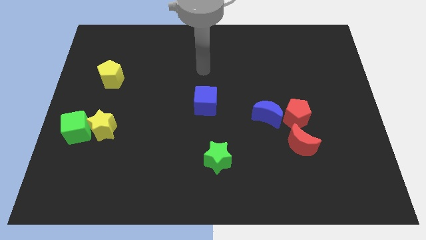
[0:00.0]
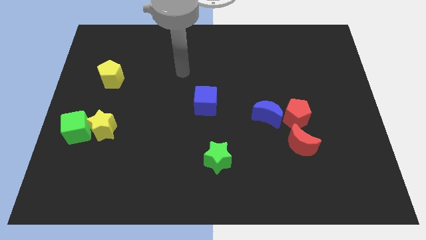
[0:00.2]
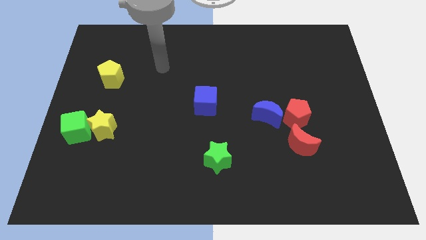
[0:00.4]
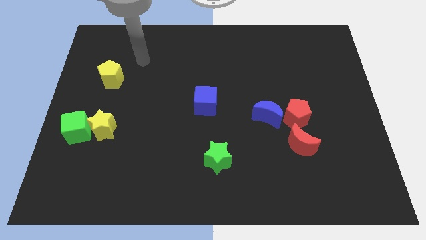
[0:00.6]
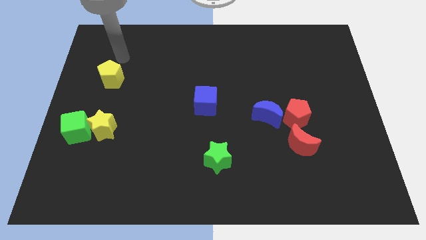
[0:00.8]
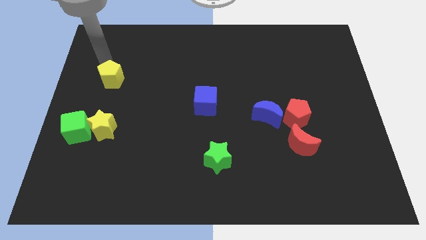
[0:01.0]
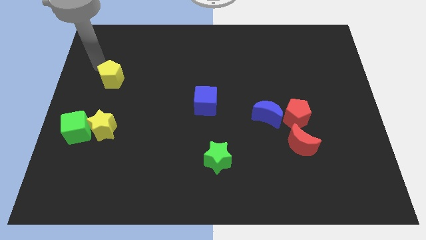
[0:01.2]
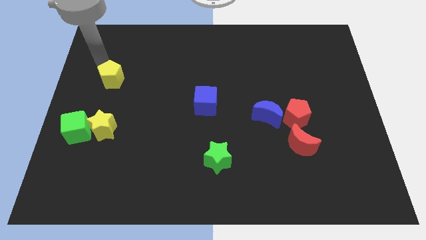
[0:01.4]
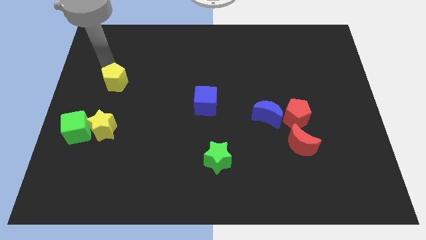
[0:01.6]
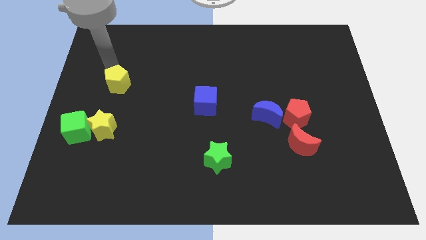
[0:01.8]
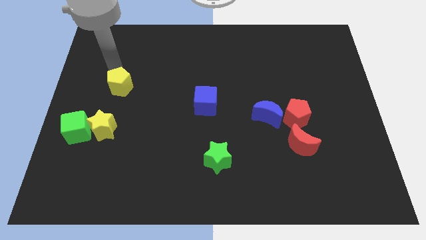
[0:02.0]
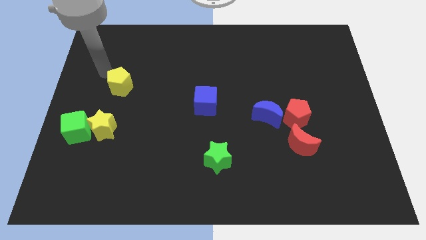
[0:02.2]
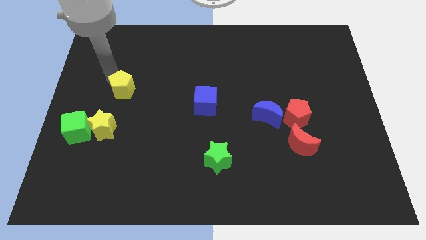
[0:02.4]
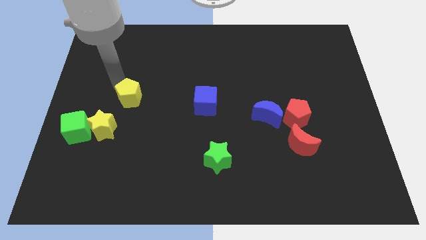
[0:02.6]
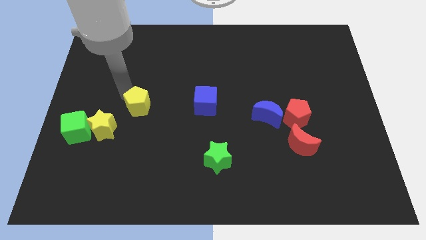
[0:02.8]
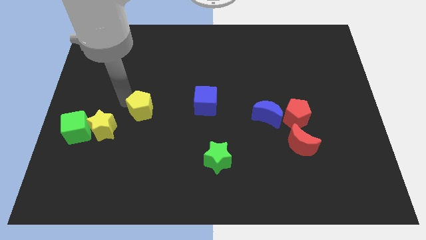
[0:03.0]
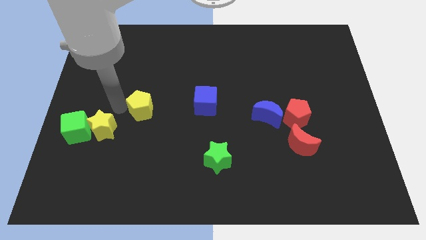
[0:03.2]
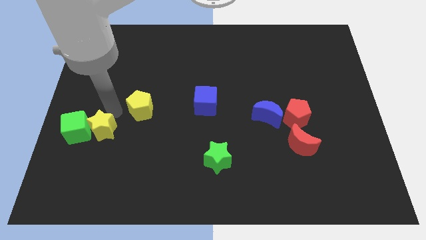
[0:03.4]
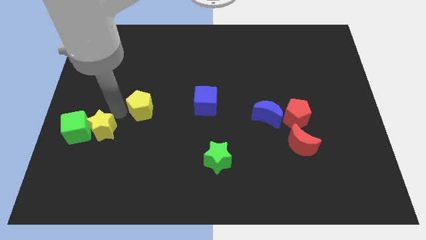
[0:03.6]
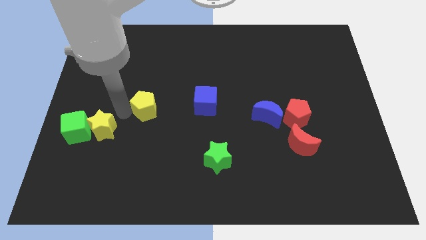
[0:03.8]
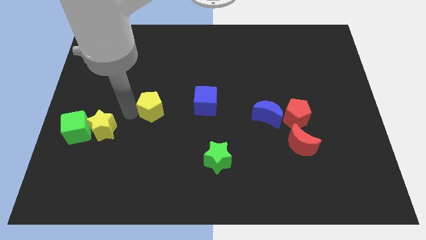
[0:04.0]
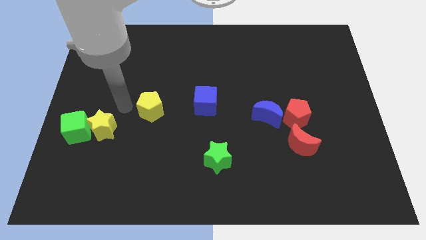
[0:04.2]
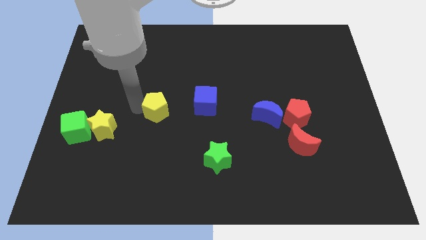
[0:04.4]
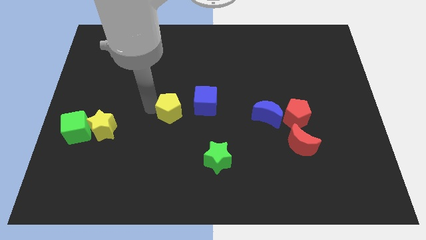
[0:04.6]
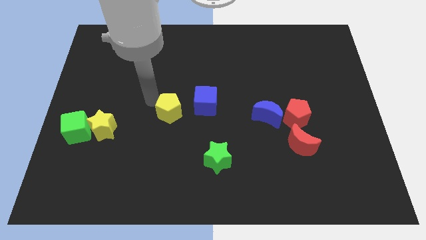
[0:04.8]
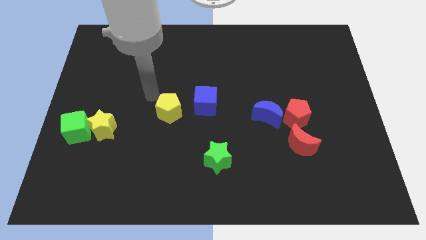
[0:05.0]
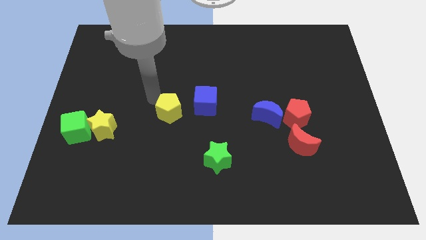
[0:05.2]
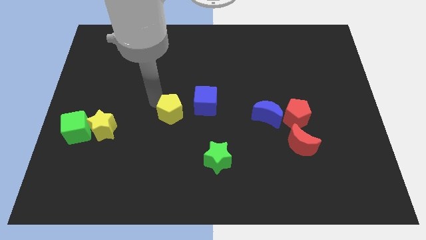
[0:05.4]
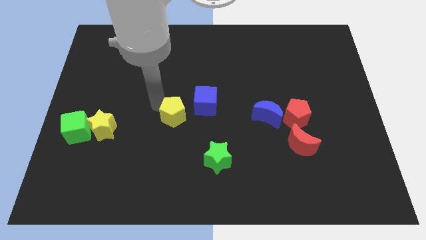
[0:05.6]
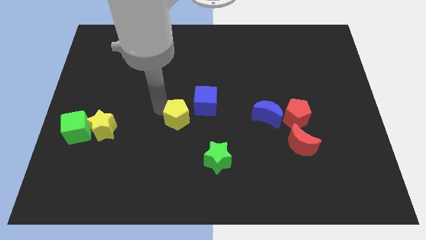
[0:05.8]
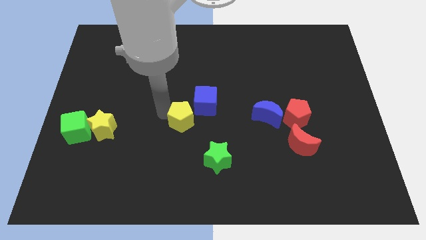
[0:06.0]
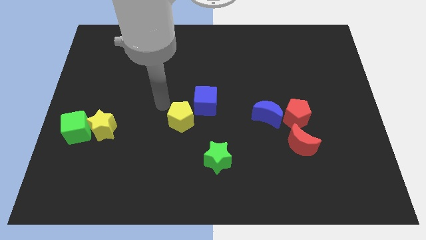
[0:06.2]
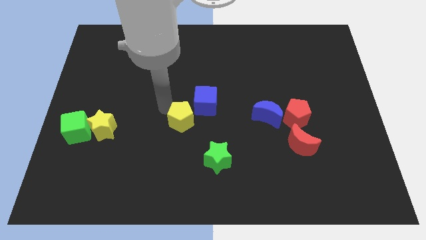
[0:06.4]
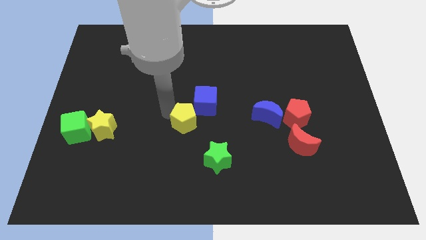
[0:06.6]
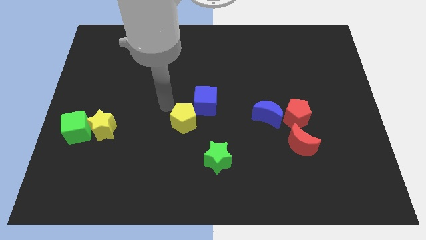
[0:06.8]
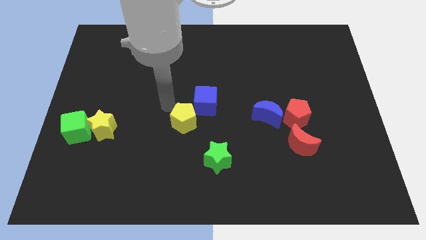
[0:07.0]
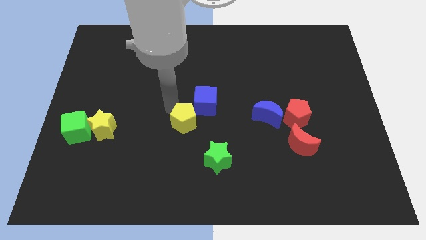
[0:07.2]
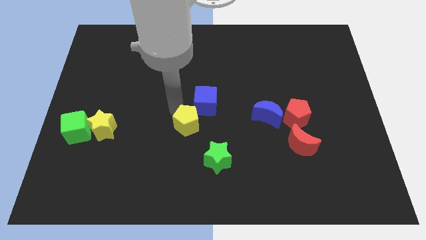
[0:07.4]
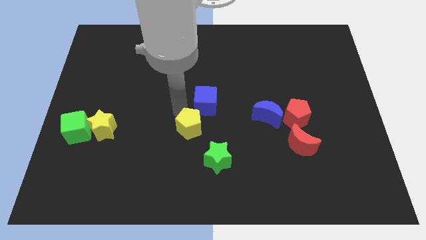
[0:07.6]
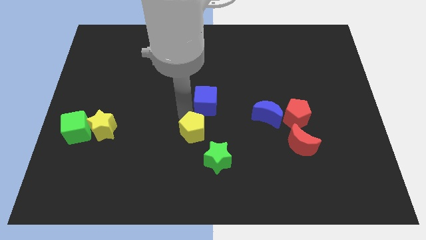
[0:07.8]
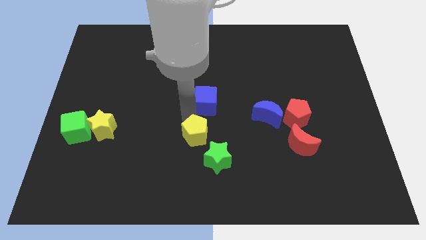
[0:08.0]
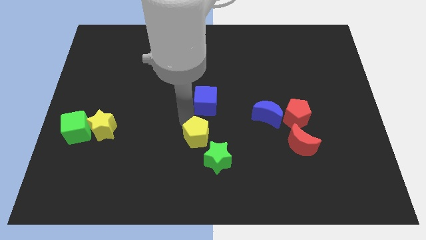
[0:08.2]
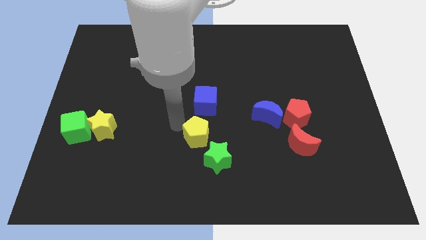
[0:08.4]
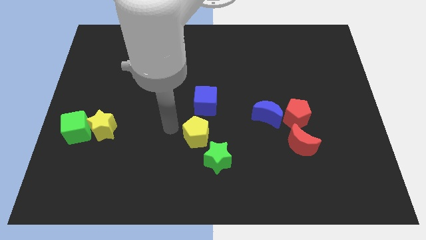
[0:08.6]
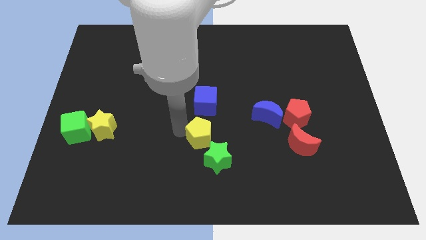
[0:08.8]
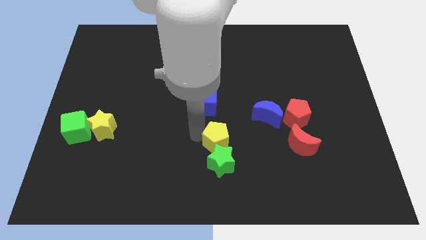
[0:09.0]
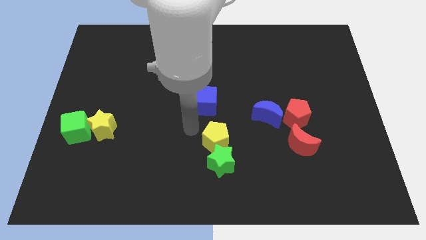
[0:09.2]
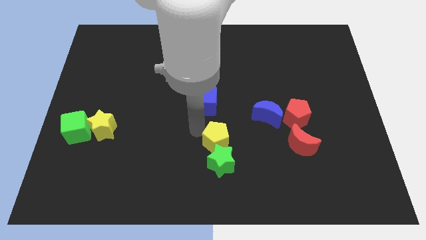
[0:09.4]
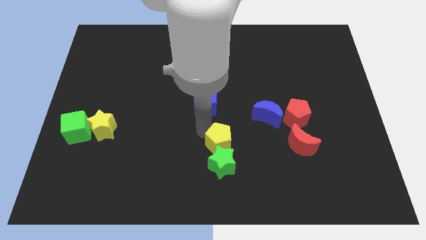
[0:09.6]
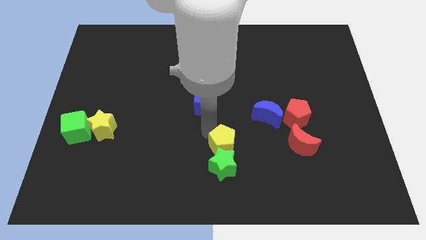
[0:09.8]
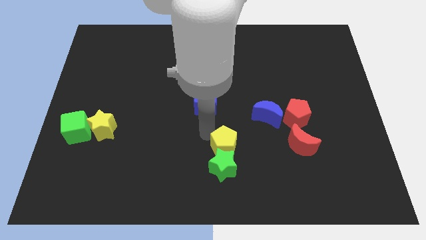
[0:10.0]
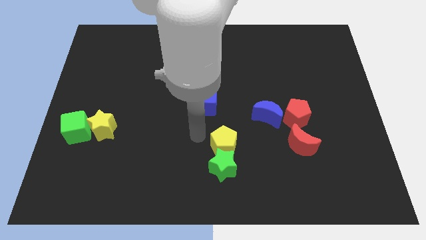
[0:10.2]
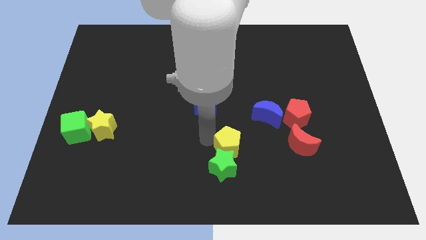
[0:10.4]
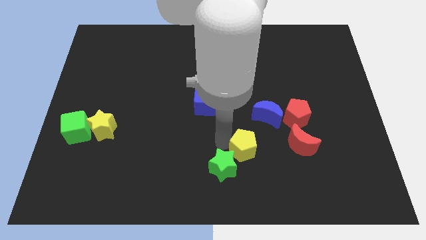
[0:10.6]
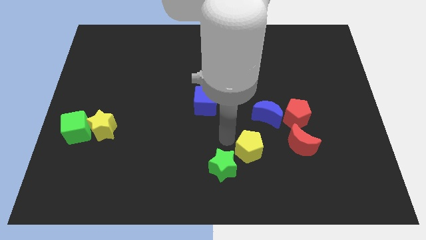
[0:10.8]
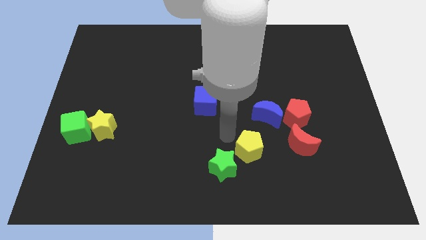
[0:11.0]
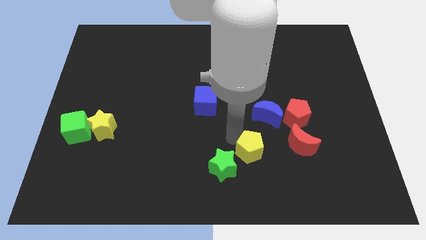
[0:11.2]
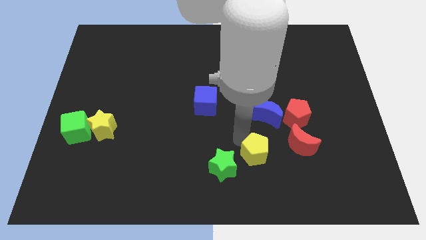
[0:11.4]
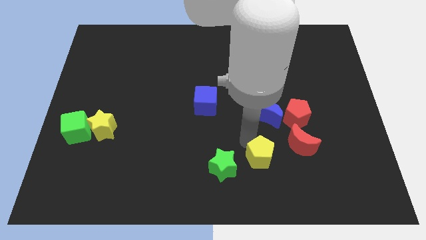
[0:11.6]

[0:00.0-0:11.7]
put the yellow pentagon to the bottom left of the red moon

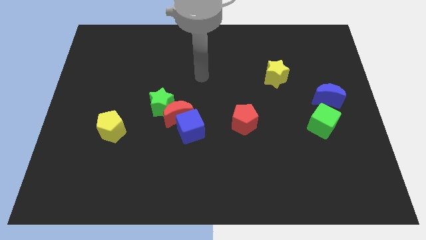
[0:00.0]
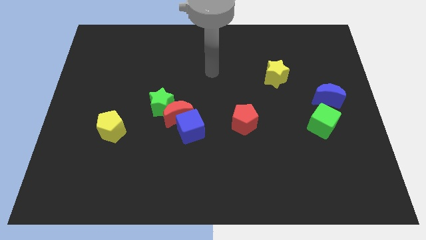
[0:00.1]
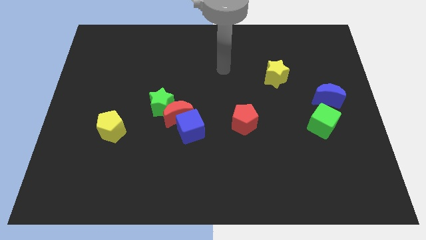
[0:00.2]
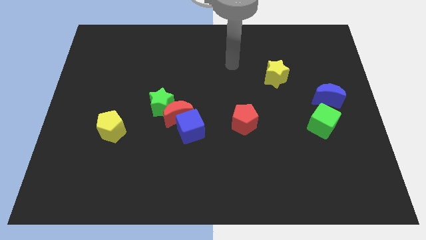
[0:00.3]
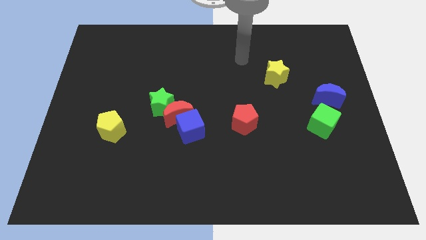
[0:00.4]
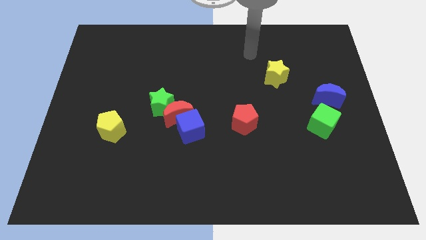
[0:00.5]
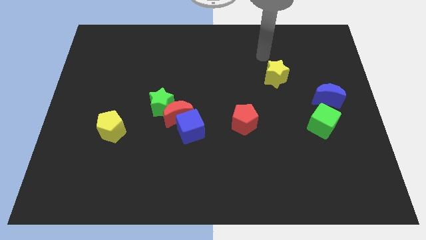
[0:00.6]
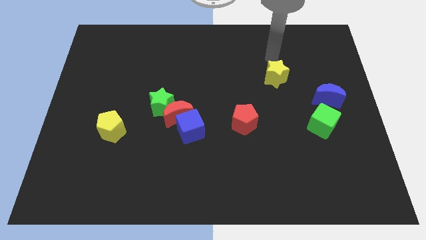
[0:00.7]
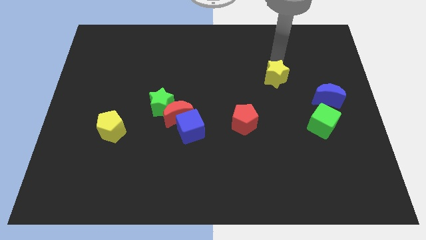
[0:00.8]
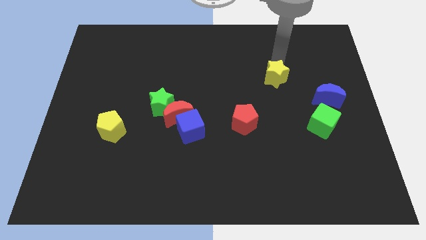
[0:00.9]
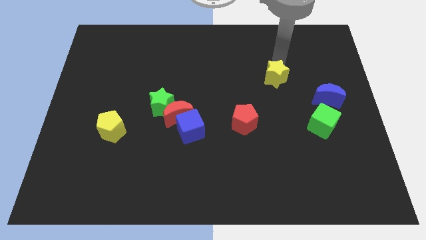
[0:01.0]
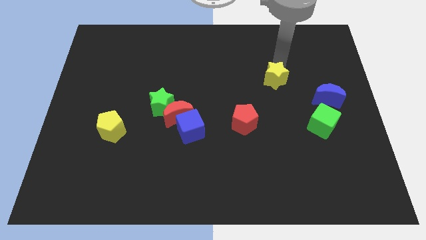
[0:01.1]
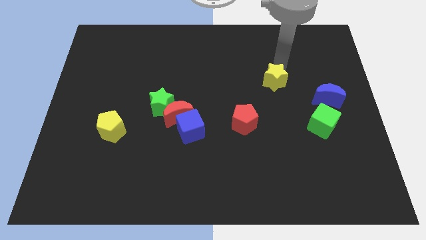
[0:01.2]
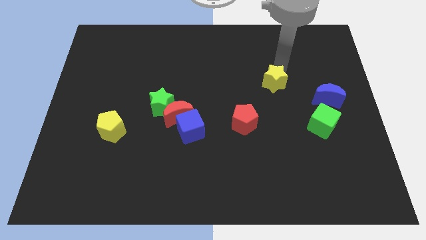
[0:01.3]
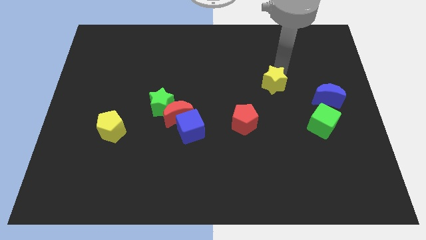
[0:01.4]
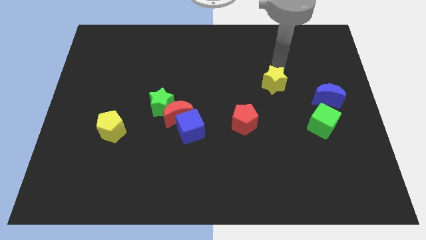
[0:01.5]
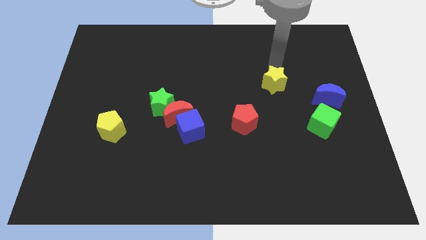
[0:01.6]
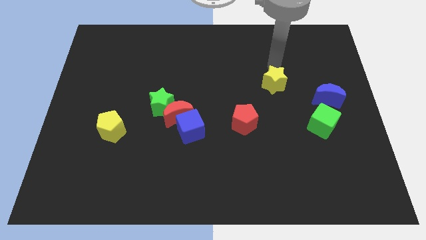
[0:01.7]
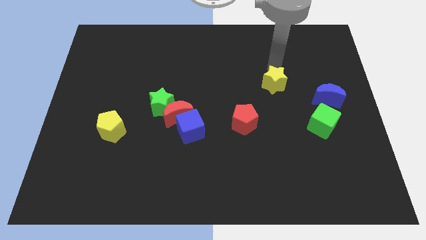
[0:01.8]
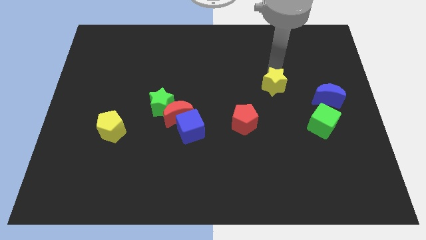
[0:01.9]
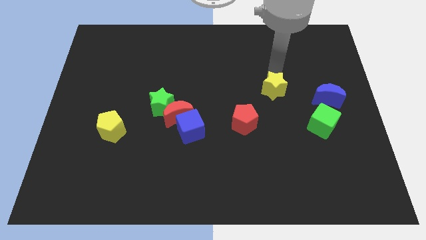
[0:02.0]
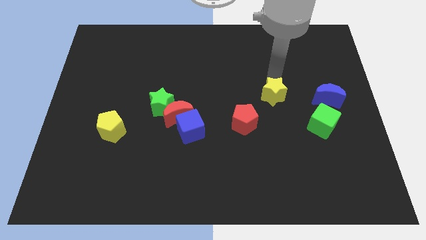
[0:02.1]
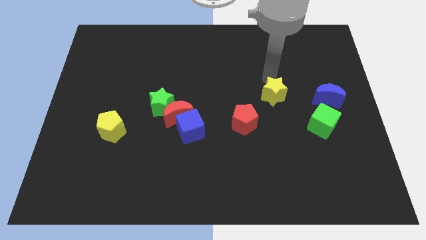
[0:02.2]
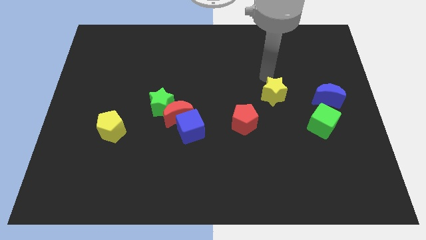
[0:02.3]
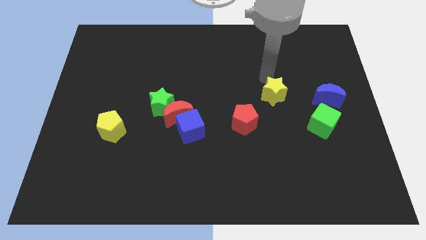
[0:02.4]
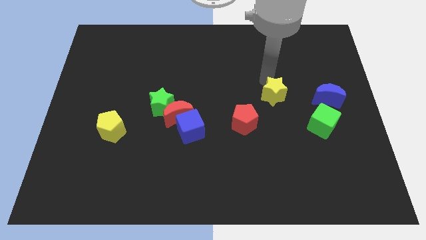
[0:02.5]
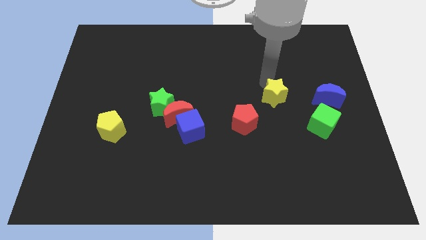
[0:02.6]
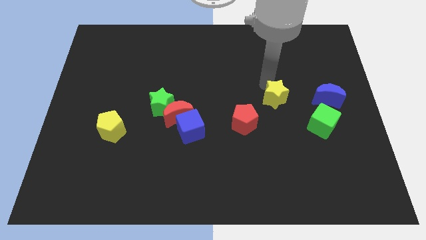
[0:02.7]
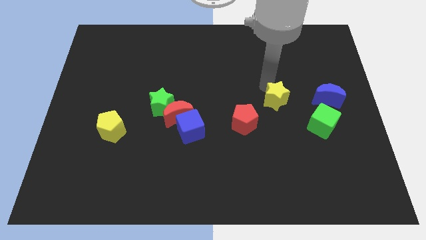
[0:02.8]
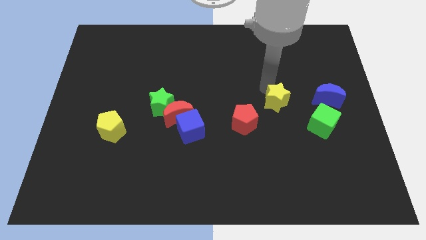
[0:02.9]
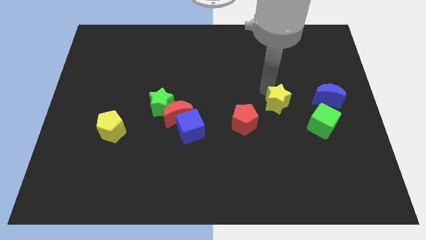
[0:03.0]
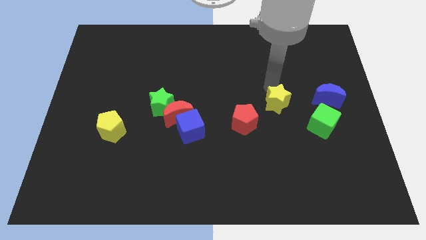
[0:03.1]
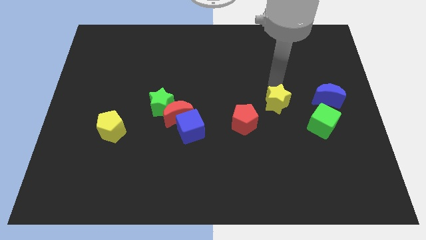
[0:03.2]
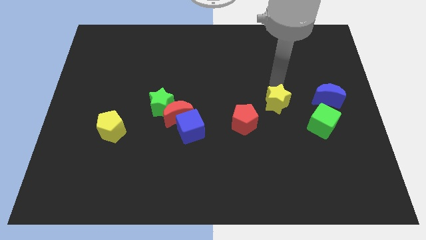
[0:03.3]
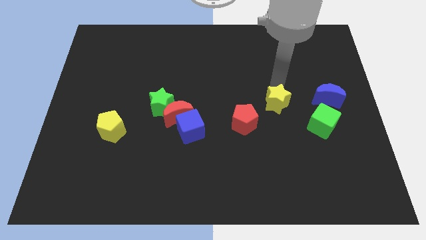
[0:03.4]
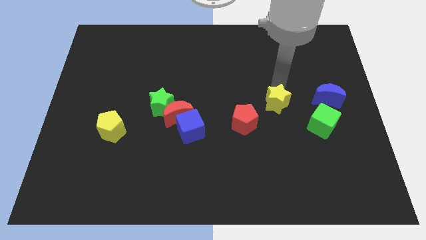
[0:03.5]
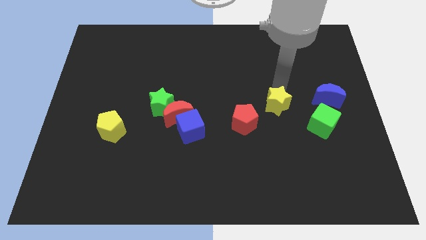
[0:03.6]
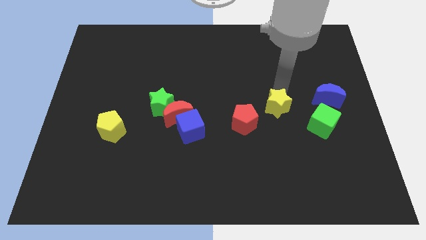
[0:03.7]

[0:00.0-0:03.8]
push the yellow star to the left side of the green cube
